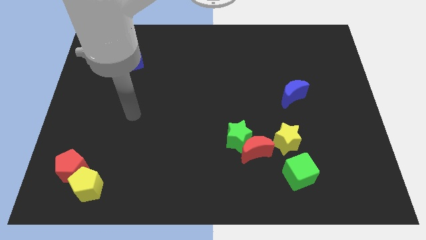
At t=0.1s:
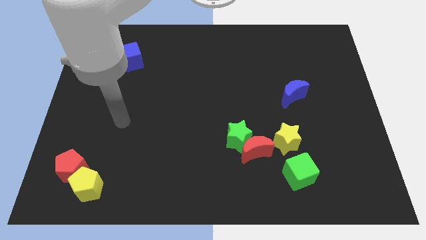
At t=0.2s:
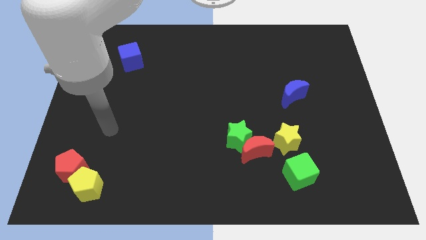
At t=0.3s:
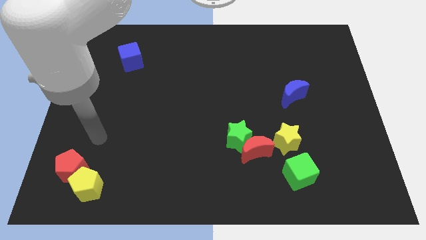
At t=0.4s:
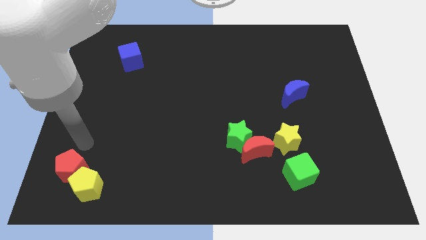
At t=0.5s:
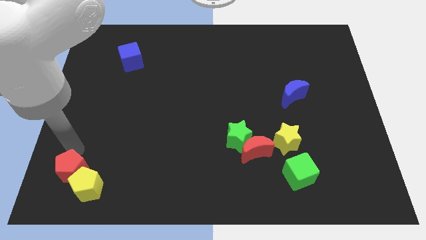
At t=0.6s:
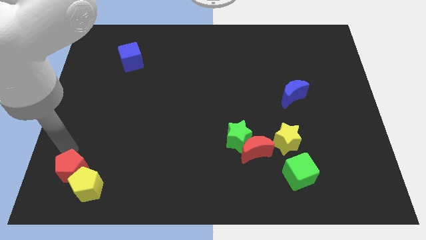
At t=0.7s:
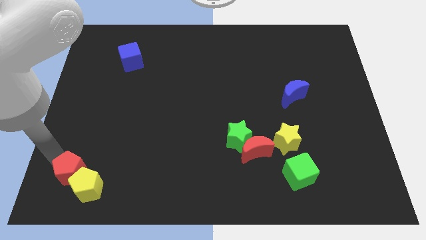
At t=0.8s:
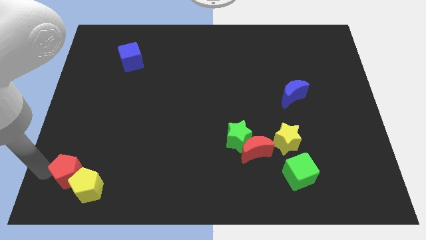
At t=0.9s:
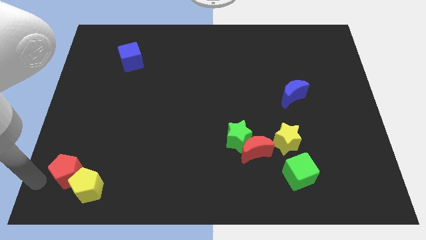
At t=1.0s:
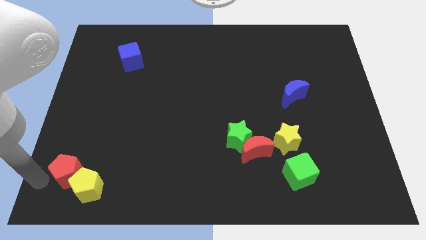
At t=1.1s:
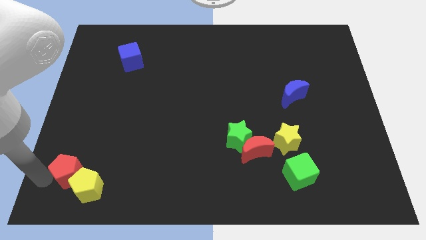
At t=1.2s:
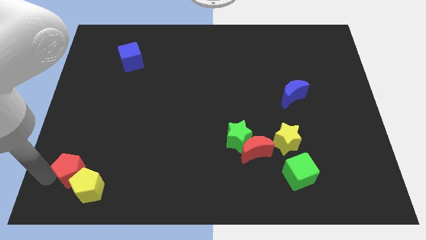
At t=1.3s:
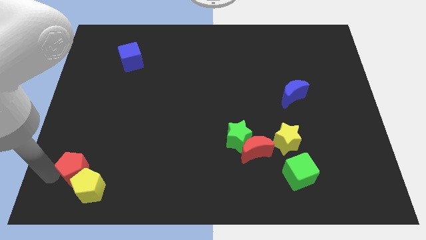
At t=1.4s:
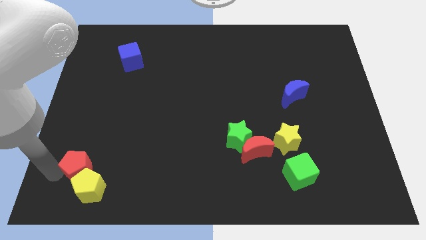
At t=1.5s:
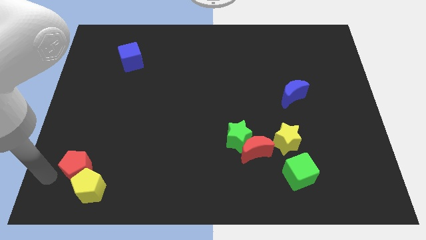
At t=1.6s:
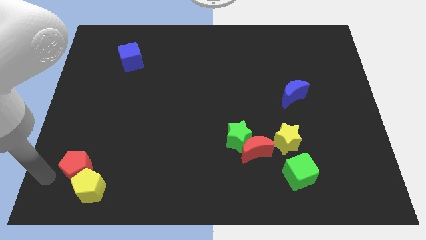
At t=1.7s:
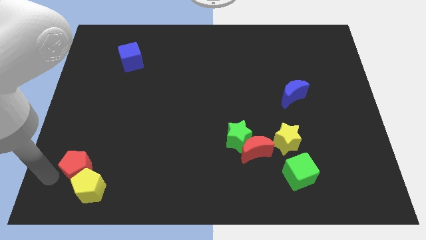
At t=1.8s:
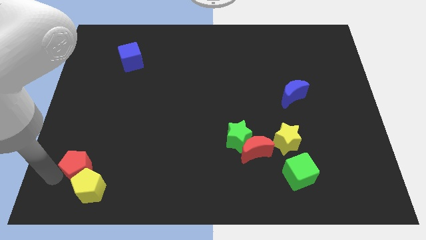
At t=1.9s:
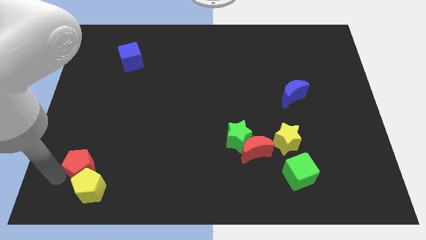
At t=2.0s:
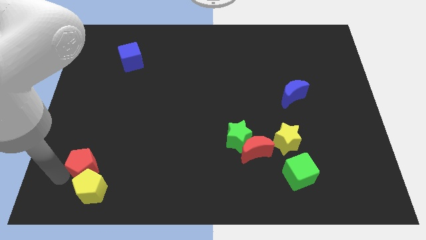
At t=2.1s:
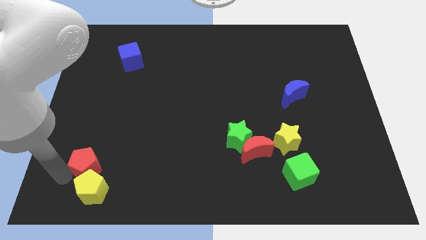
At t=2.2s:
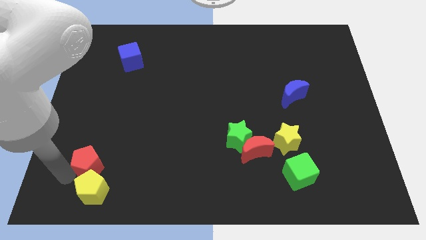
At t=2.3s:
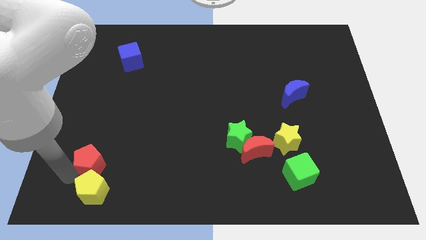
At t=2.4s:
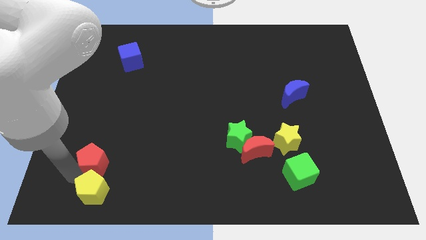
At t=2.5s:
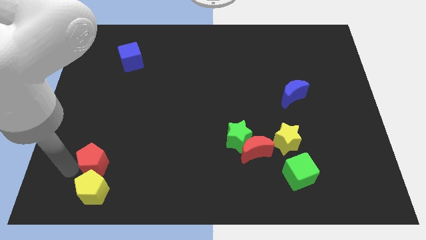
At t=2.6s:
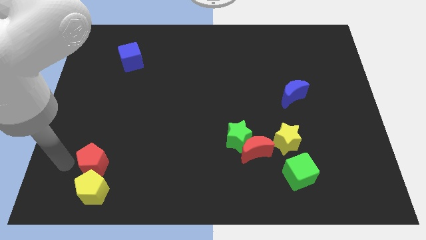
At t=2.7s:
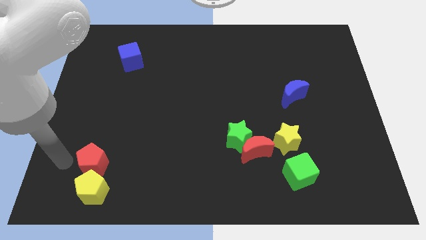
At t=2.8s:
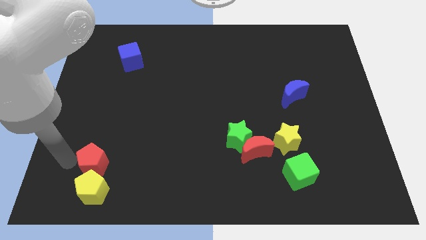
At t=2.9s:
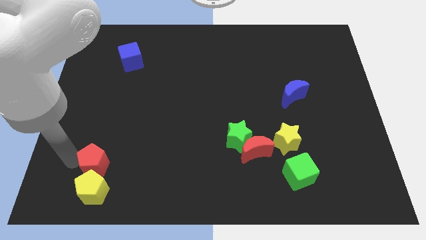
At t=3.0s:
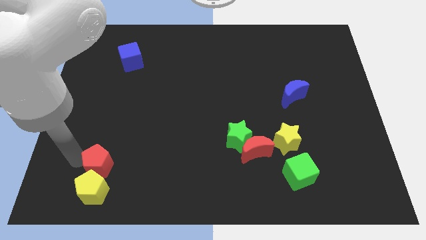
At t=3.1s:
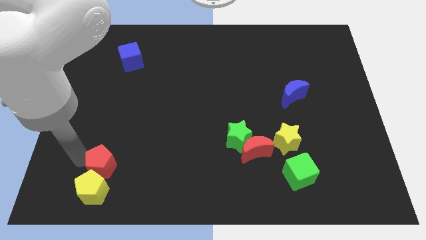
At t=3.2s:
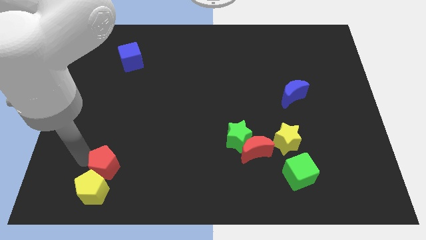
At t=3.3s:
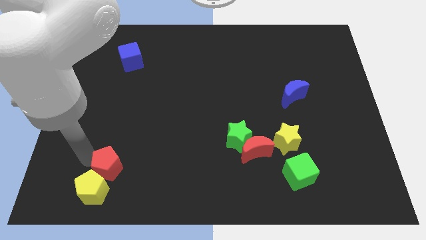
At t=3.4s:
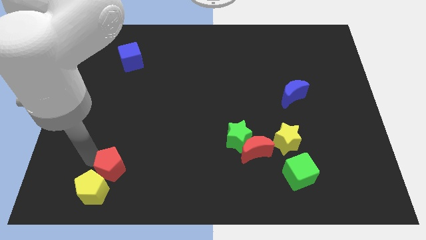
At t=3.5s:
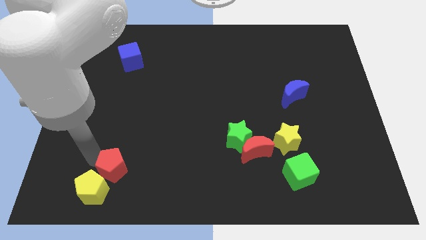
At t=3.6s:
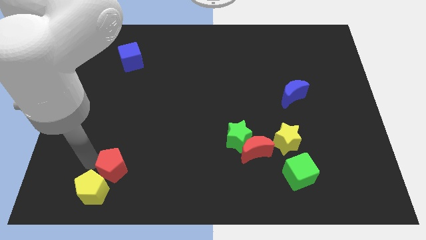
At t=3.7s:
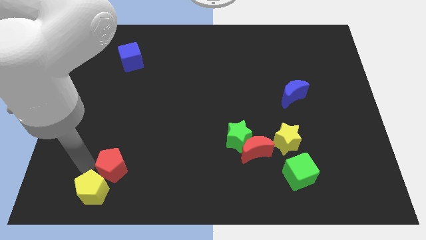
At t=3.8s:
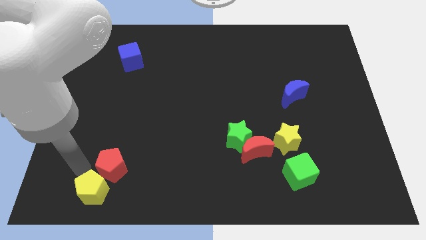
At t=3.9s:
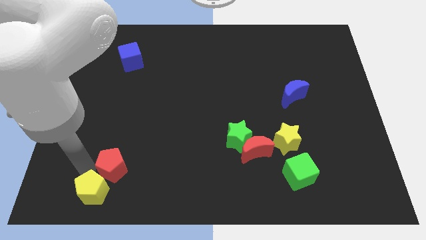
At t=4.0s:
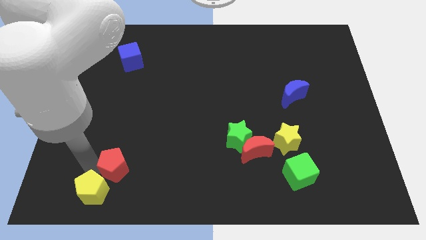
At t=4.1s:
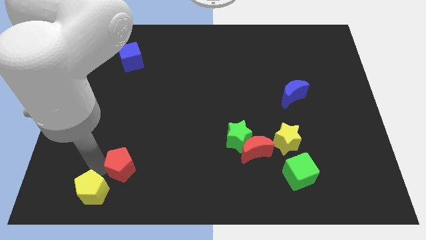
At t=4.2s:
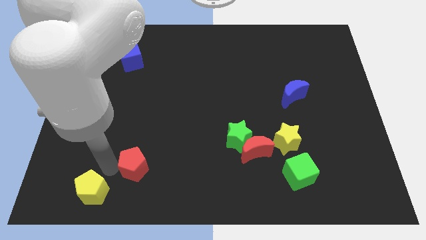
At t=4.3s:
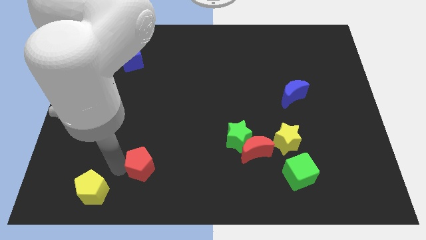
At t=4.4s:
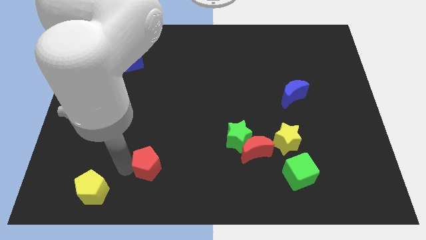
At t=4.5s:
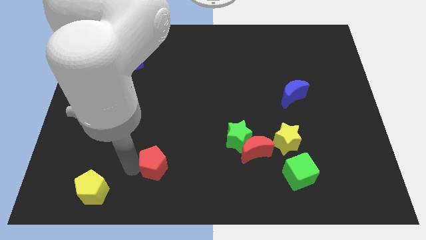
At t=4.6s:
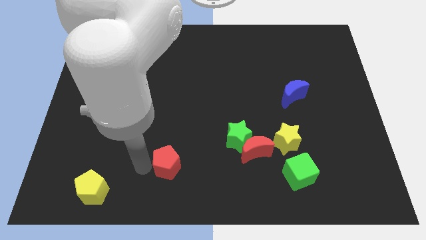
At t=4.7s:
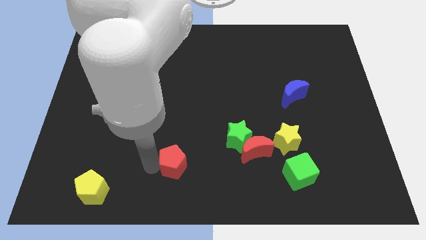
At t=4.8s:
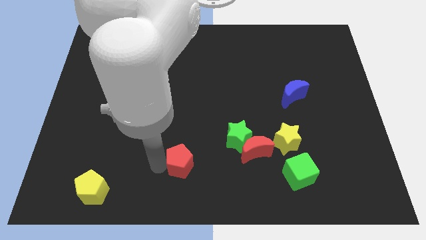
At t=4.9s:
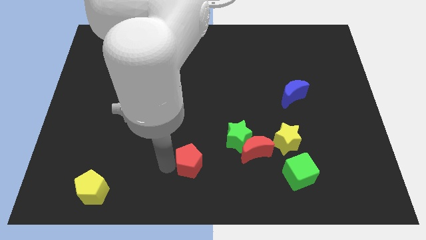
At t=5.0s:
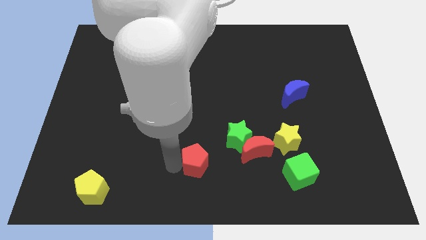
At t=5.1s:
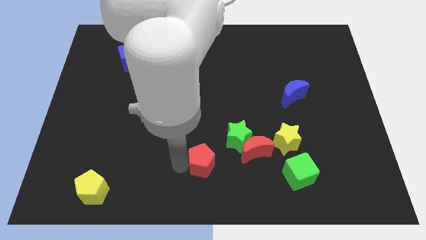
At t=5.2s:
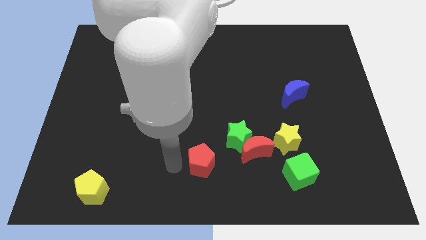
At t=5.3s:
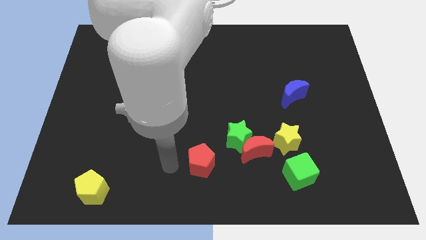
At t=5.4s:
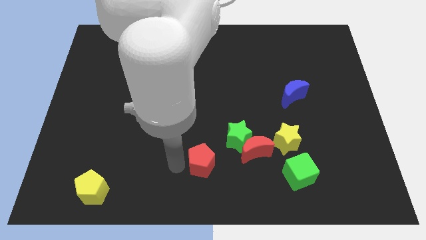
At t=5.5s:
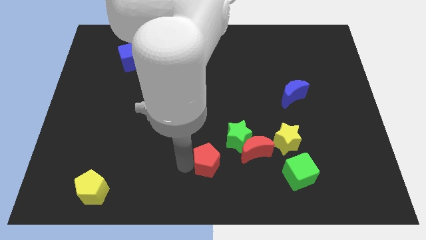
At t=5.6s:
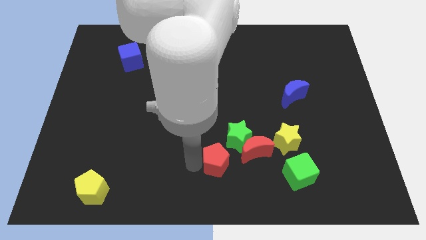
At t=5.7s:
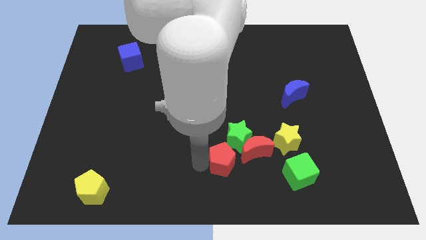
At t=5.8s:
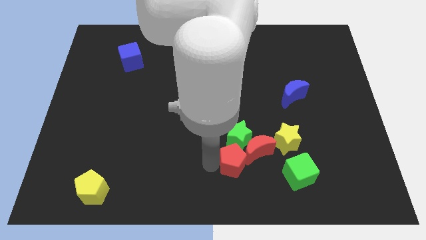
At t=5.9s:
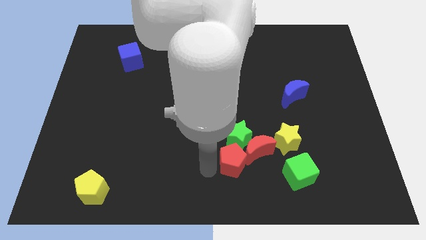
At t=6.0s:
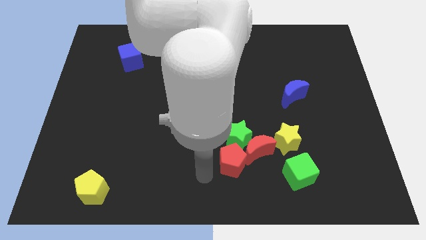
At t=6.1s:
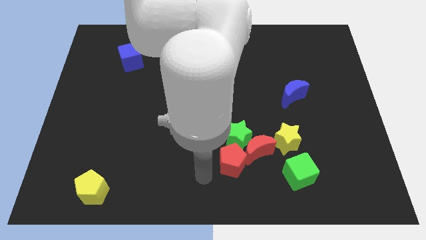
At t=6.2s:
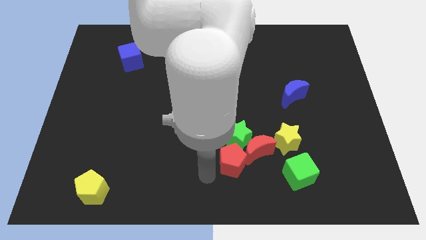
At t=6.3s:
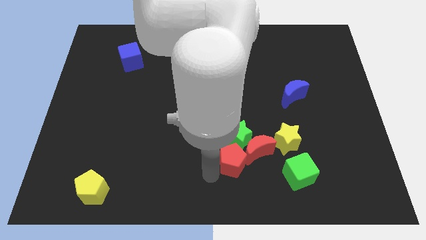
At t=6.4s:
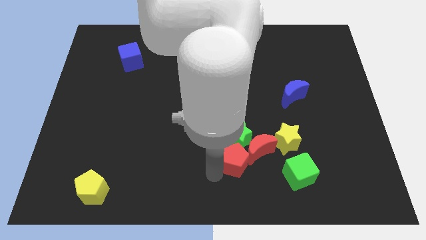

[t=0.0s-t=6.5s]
push the red pentagon towards the red moon

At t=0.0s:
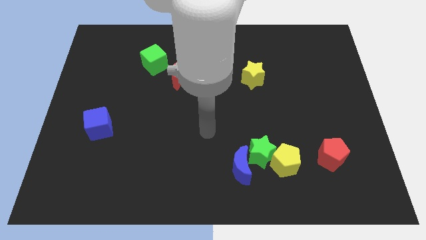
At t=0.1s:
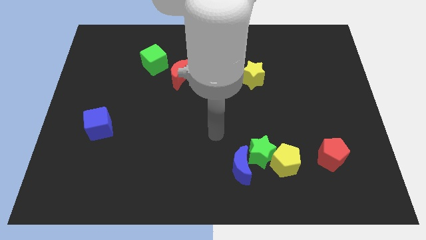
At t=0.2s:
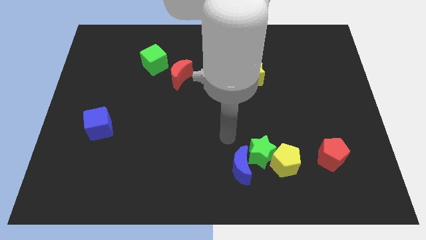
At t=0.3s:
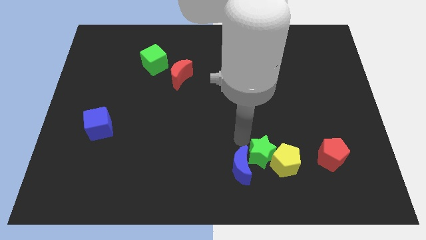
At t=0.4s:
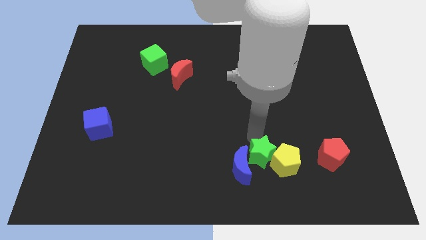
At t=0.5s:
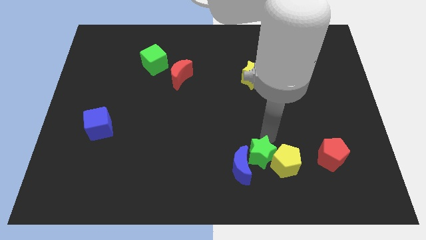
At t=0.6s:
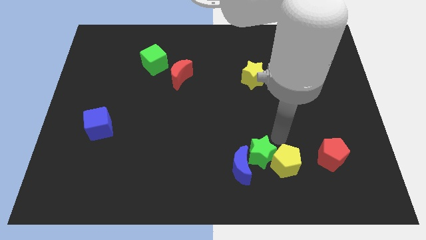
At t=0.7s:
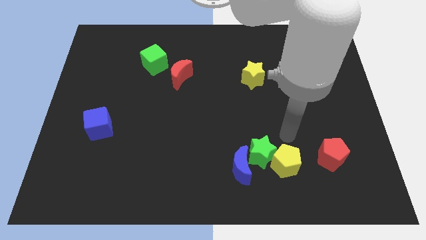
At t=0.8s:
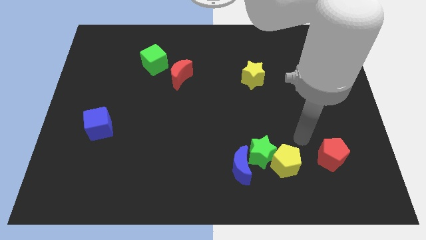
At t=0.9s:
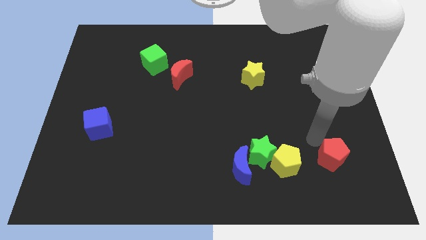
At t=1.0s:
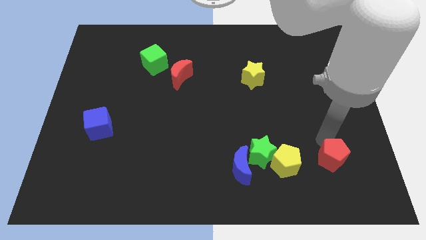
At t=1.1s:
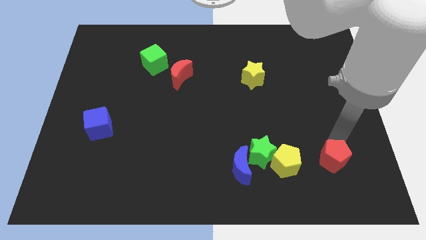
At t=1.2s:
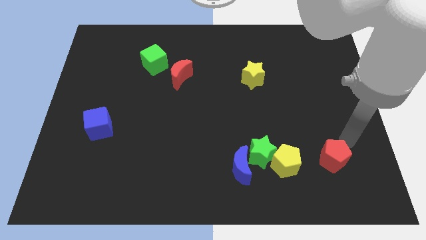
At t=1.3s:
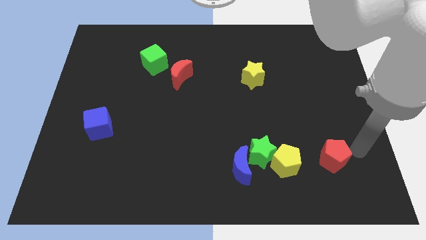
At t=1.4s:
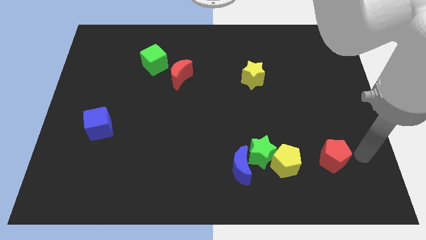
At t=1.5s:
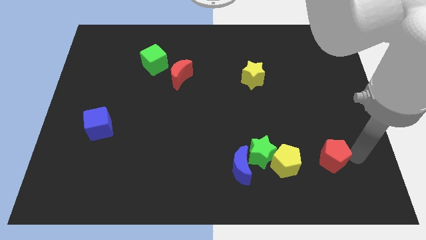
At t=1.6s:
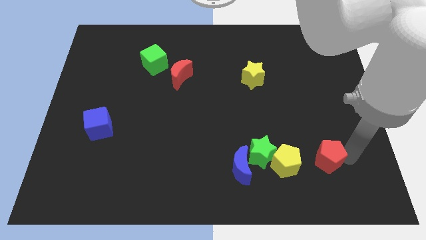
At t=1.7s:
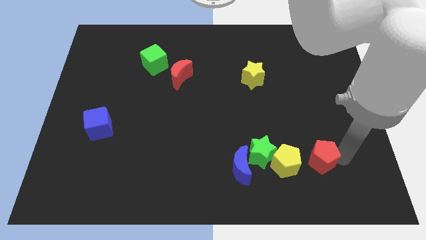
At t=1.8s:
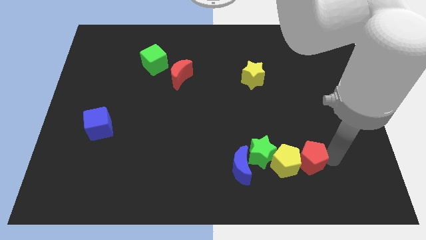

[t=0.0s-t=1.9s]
move the red pentagon towards the yellow pentagon

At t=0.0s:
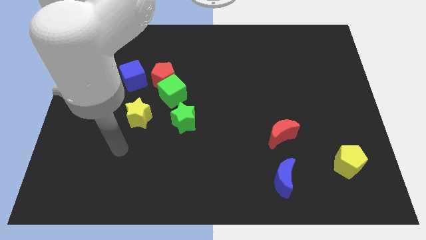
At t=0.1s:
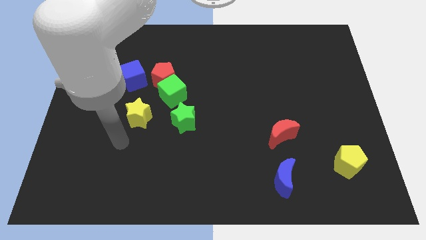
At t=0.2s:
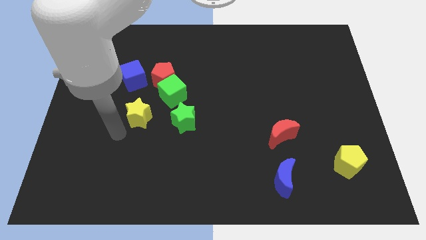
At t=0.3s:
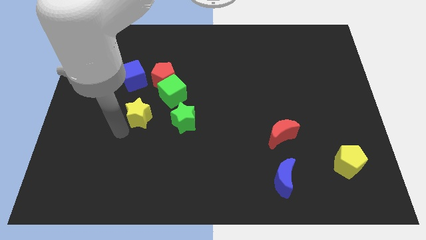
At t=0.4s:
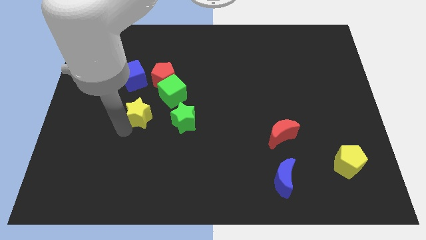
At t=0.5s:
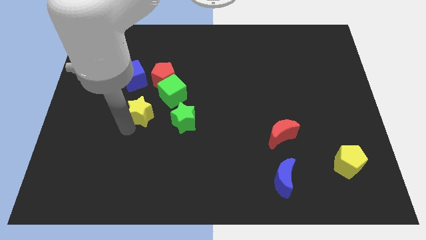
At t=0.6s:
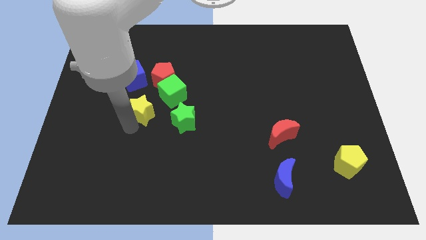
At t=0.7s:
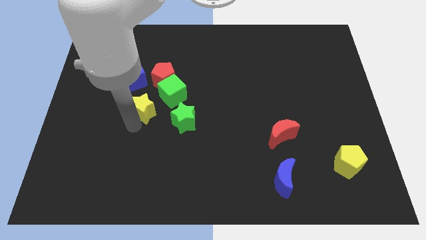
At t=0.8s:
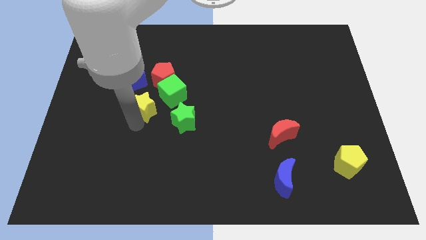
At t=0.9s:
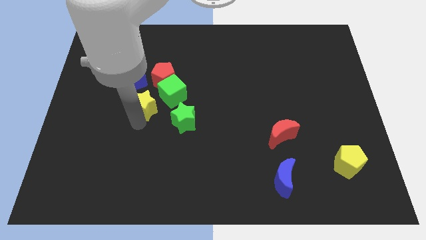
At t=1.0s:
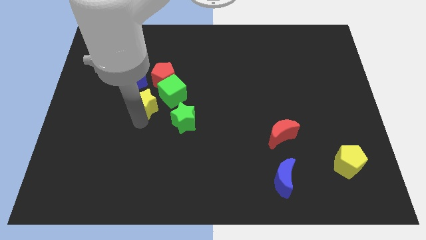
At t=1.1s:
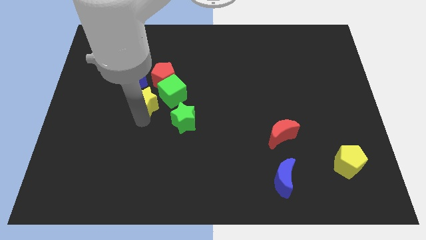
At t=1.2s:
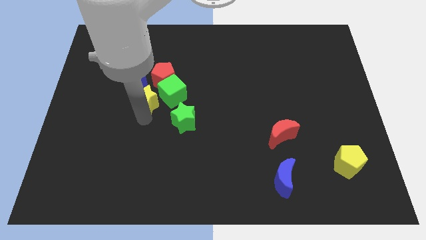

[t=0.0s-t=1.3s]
move the yellow star to the green cube
